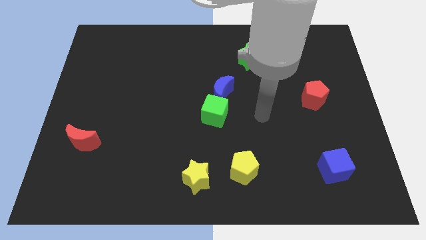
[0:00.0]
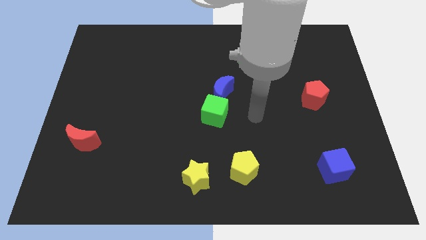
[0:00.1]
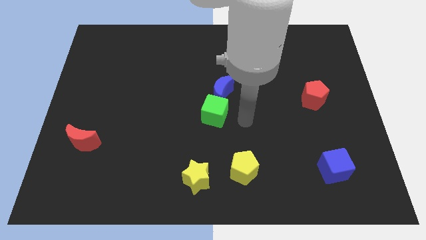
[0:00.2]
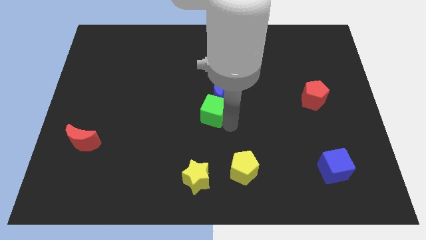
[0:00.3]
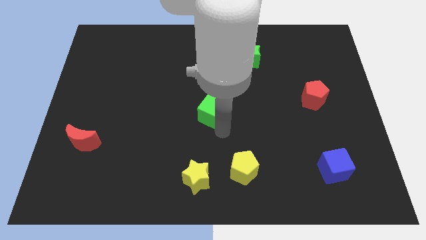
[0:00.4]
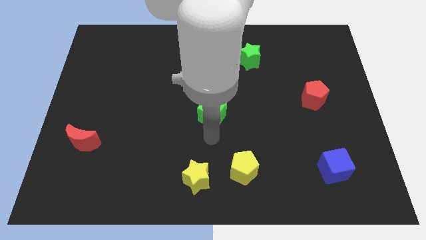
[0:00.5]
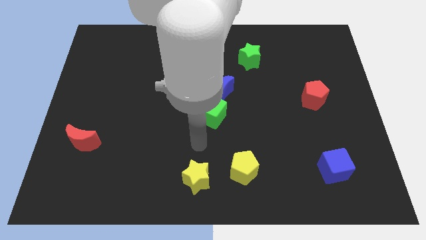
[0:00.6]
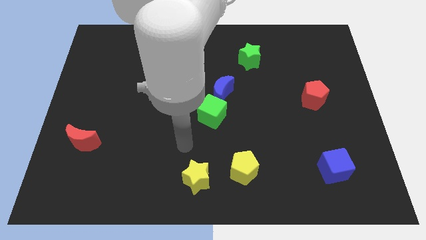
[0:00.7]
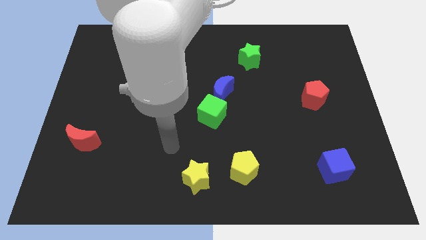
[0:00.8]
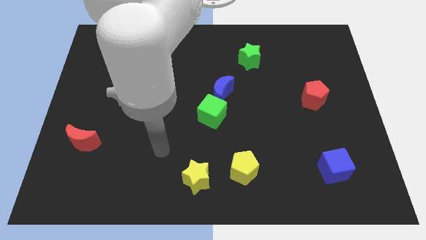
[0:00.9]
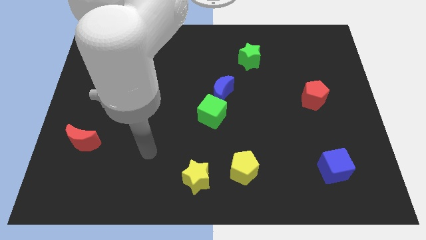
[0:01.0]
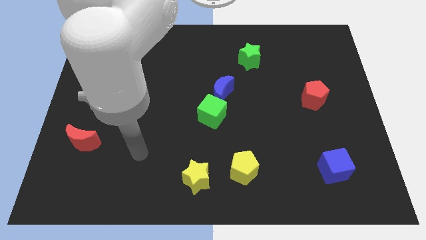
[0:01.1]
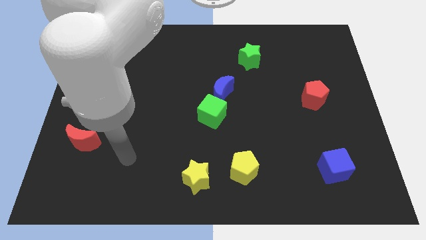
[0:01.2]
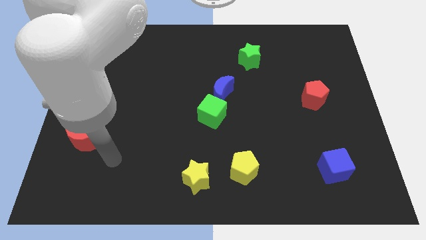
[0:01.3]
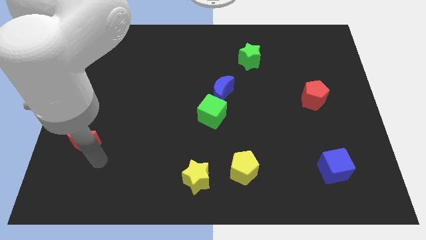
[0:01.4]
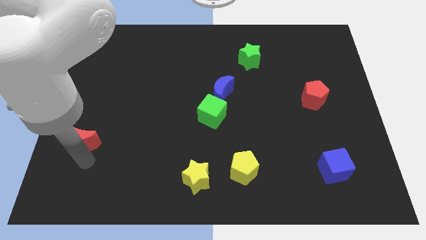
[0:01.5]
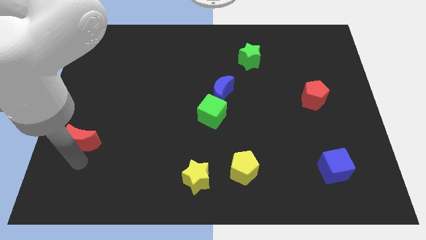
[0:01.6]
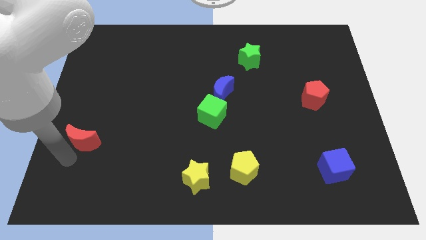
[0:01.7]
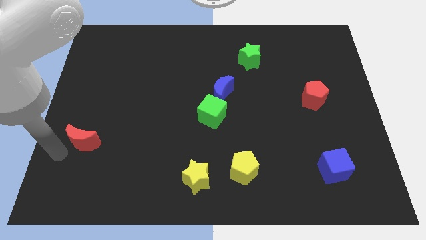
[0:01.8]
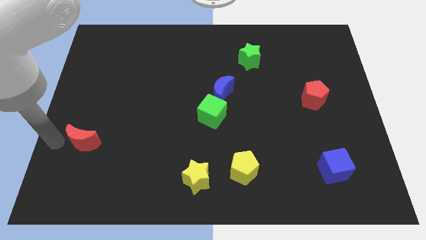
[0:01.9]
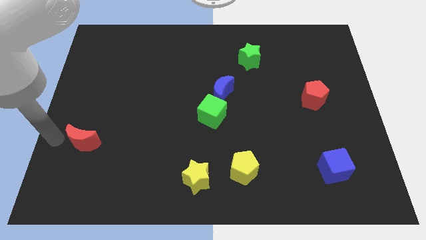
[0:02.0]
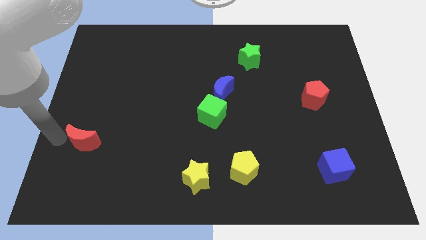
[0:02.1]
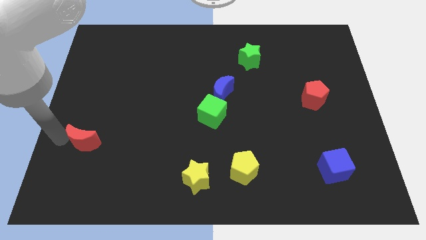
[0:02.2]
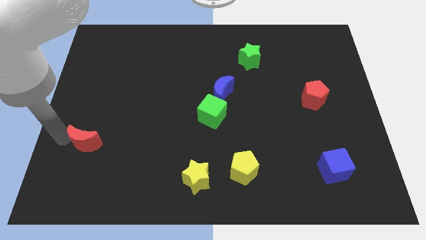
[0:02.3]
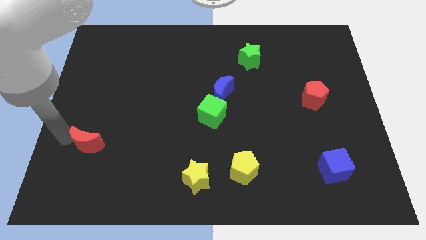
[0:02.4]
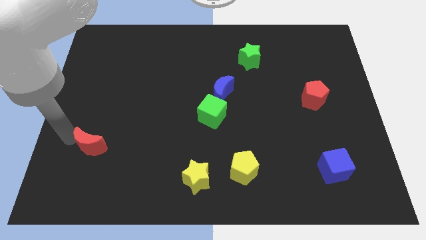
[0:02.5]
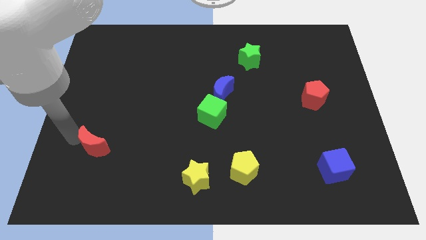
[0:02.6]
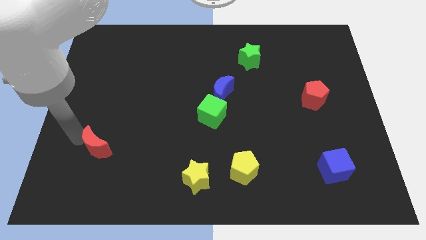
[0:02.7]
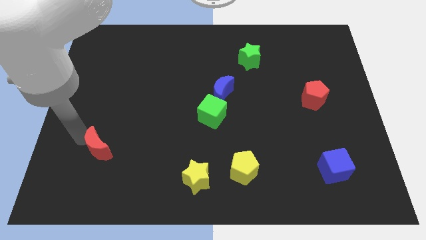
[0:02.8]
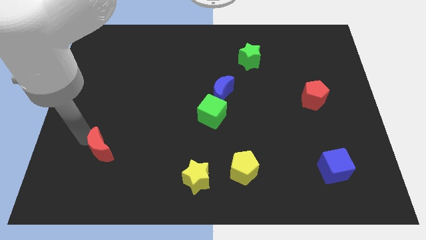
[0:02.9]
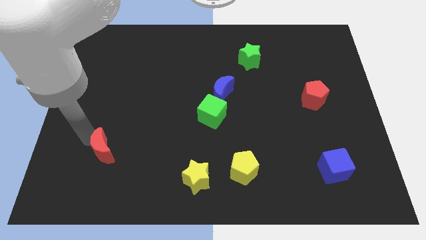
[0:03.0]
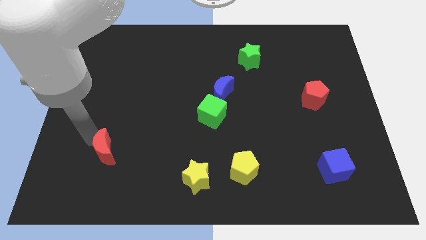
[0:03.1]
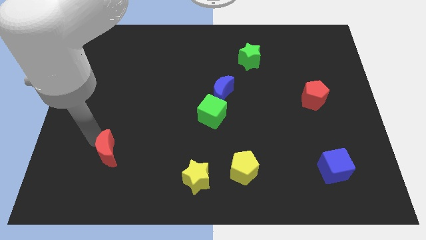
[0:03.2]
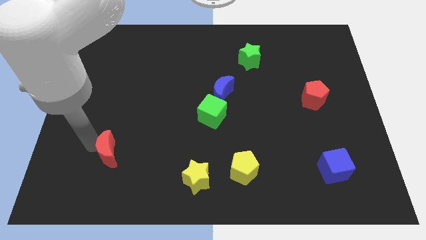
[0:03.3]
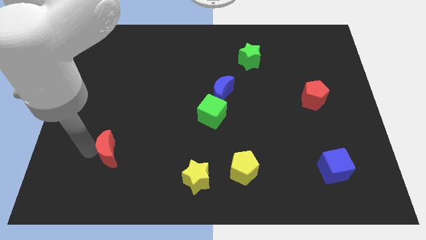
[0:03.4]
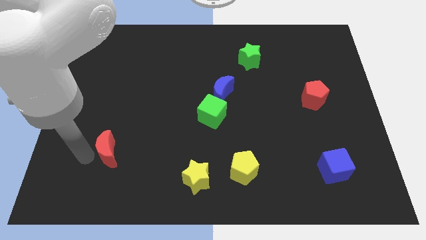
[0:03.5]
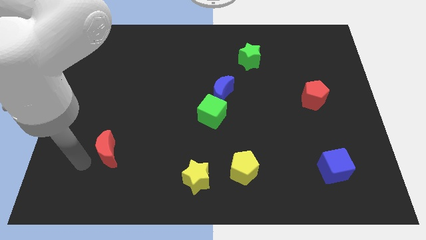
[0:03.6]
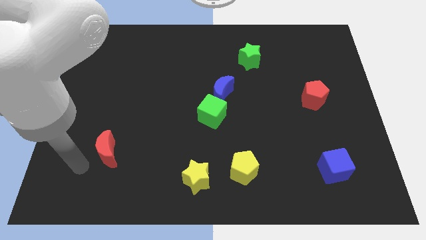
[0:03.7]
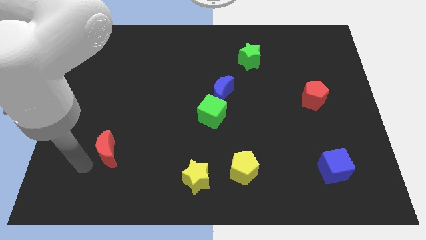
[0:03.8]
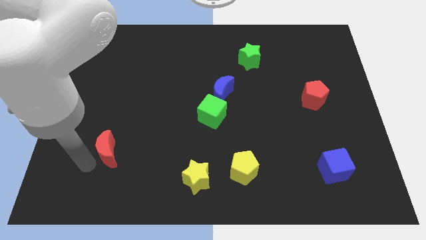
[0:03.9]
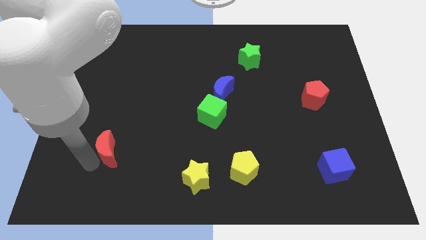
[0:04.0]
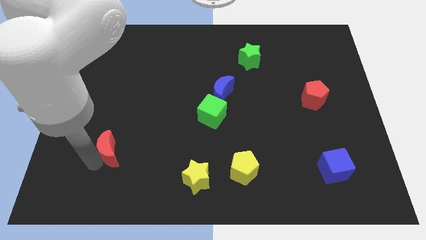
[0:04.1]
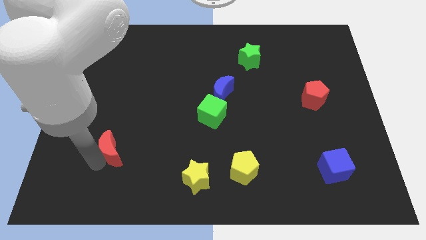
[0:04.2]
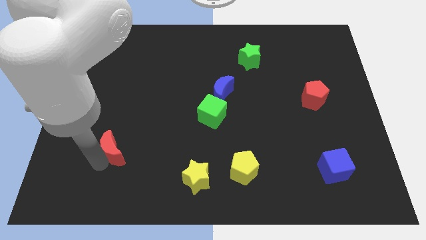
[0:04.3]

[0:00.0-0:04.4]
push the red moon slightly right

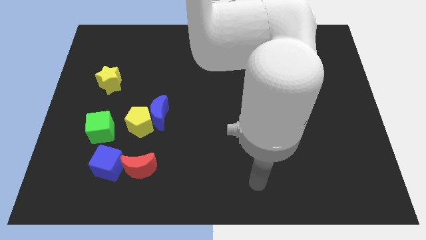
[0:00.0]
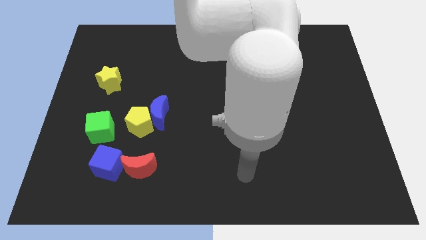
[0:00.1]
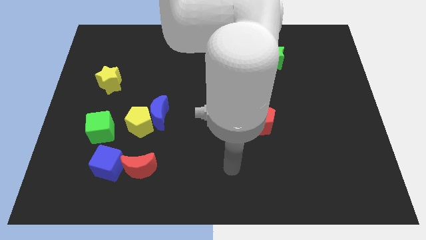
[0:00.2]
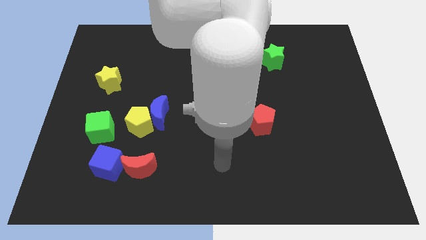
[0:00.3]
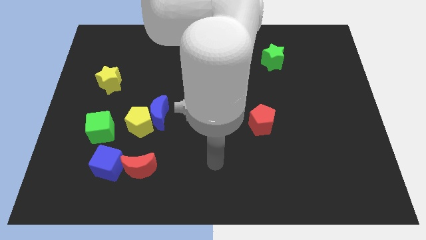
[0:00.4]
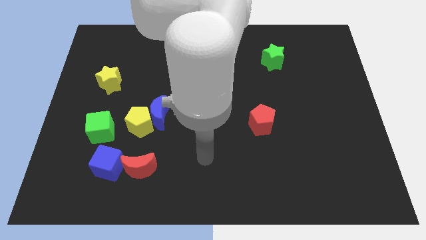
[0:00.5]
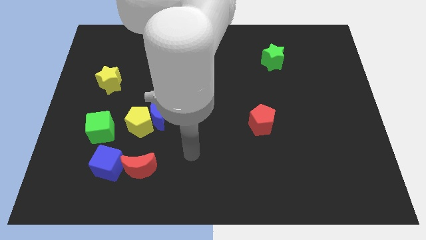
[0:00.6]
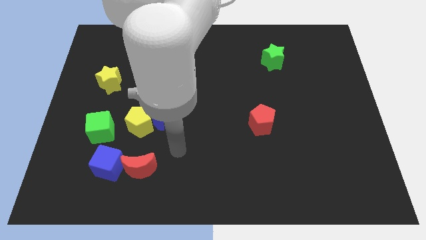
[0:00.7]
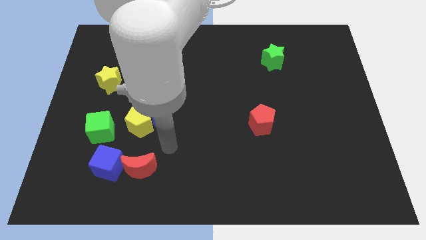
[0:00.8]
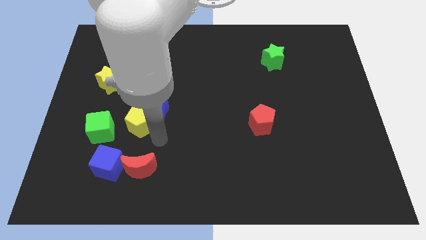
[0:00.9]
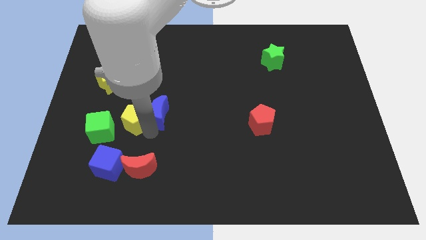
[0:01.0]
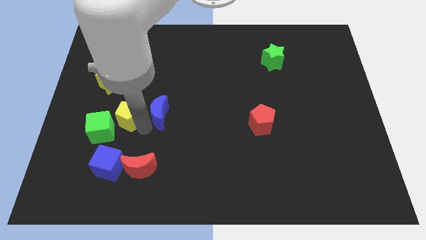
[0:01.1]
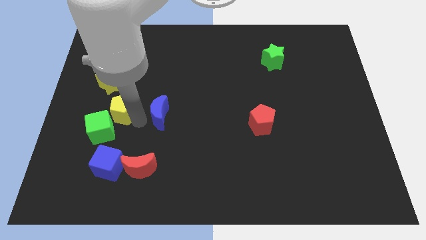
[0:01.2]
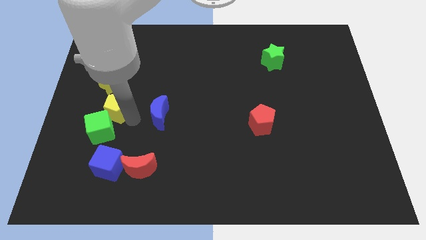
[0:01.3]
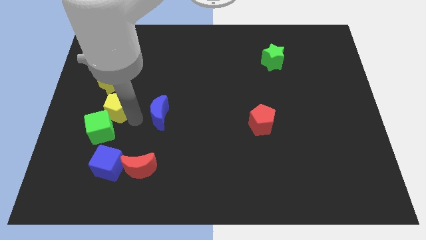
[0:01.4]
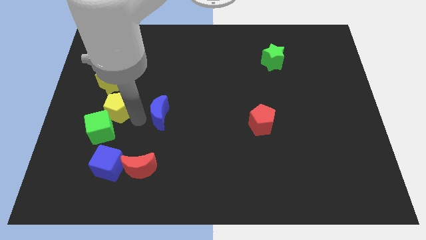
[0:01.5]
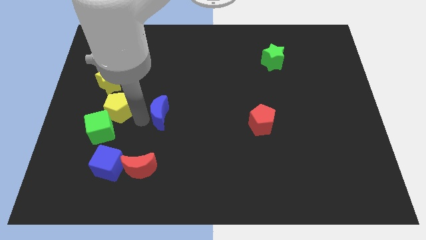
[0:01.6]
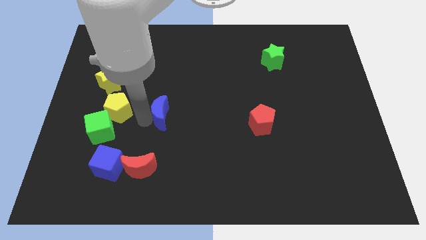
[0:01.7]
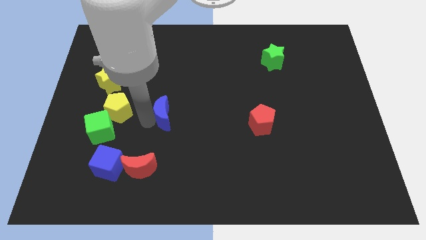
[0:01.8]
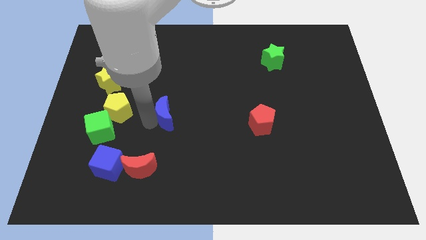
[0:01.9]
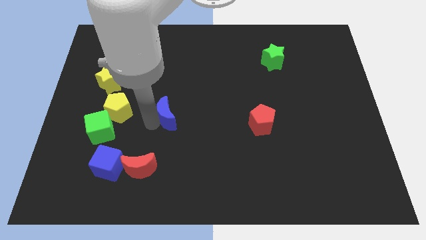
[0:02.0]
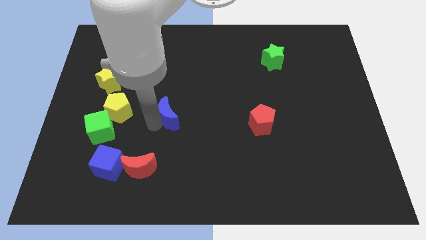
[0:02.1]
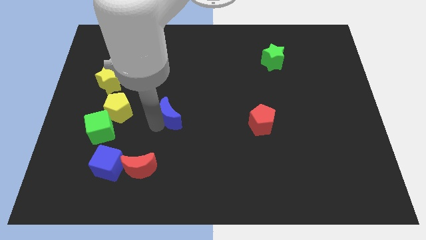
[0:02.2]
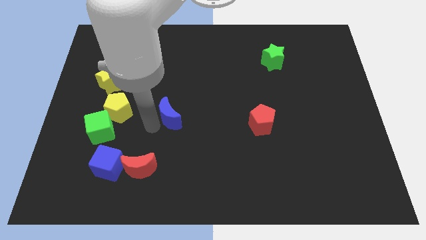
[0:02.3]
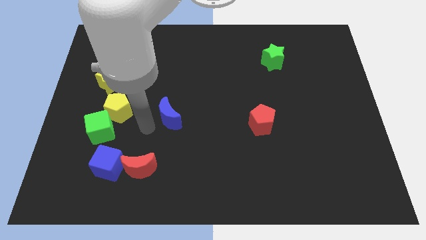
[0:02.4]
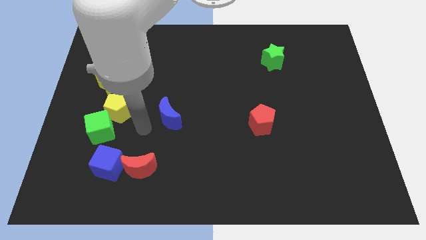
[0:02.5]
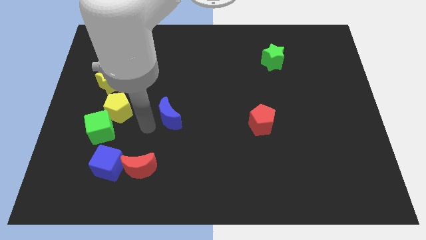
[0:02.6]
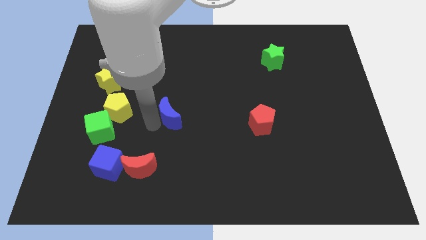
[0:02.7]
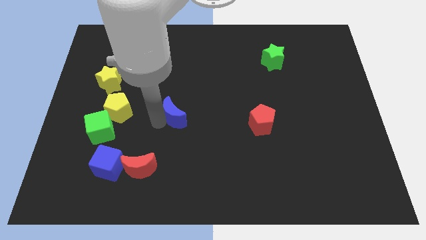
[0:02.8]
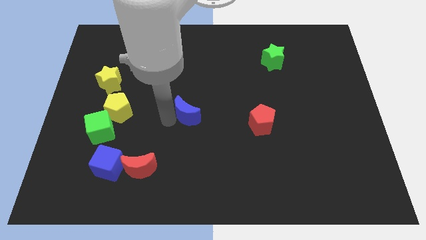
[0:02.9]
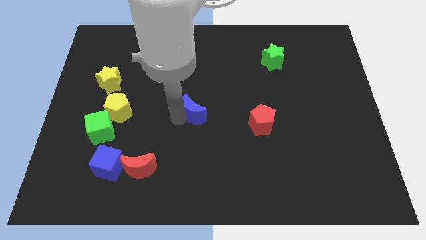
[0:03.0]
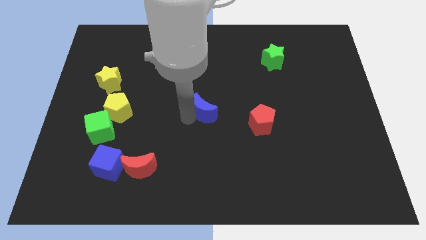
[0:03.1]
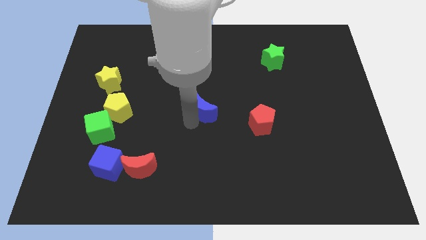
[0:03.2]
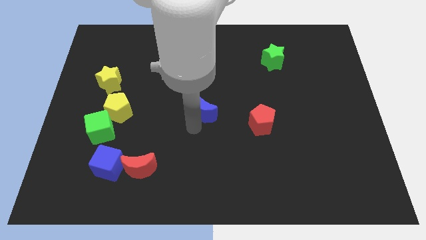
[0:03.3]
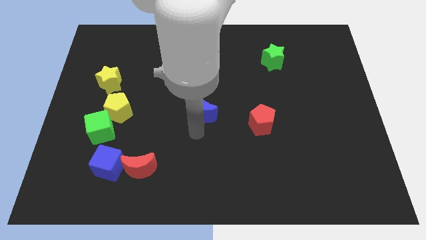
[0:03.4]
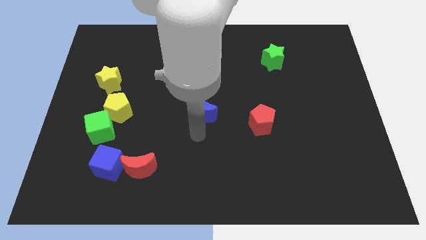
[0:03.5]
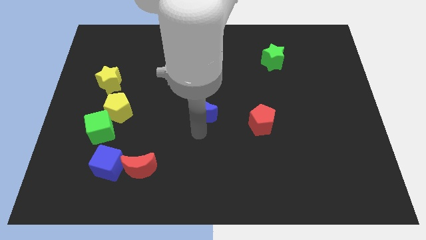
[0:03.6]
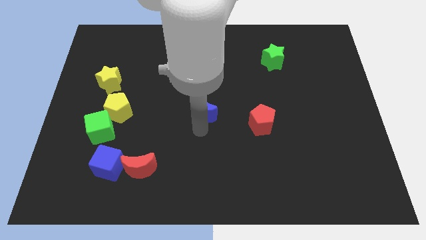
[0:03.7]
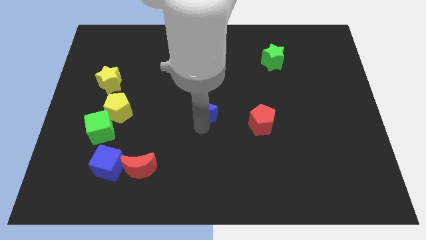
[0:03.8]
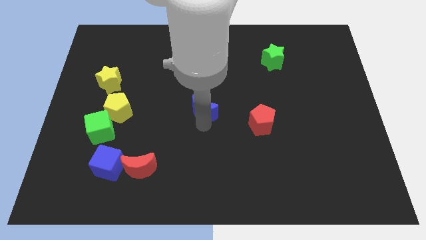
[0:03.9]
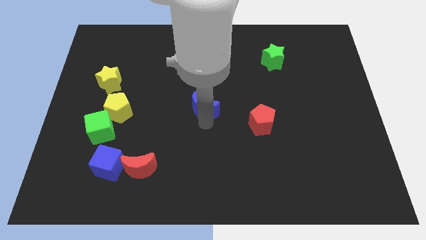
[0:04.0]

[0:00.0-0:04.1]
slightly slide the blue moon diagonally upwards and to the right
